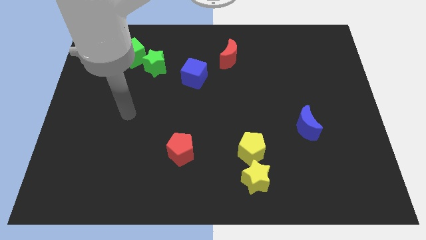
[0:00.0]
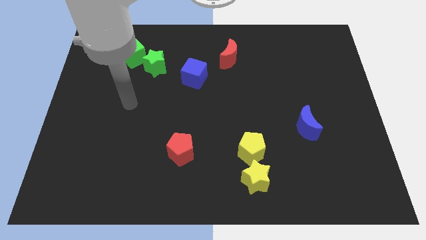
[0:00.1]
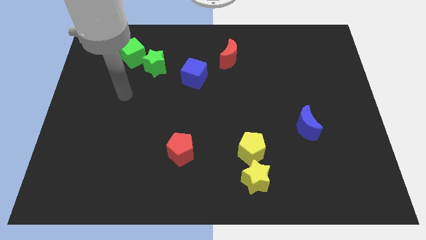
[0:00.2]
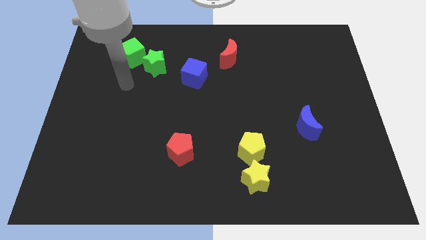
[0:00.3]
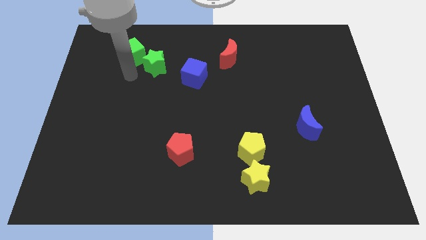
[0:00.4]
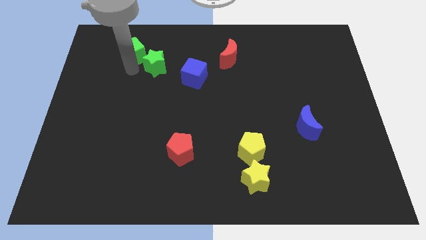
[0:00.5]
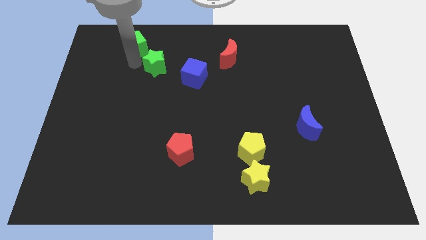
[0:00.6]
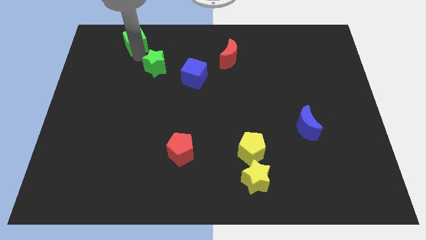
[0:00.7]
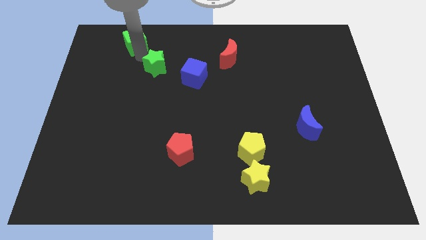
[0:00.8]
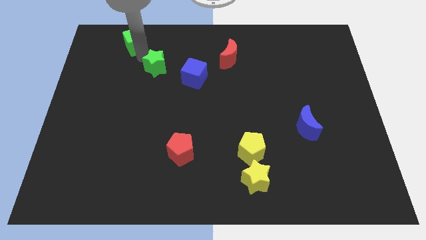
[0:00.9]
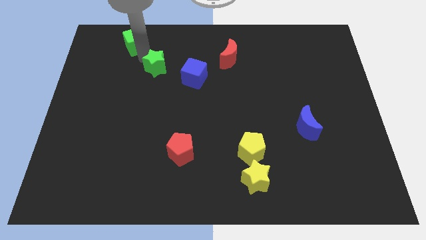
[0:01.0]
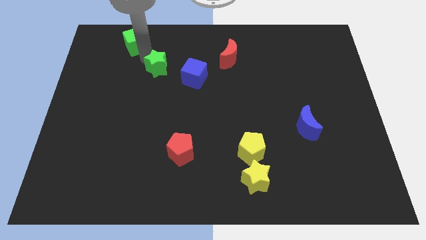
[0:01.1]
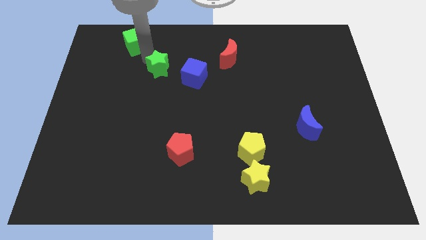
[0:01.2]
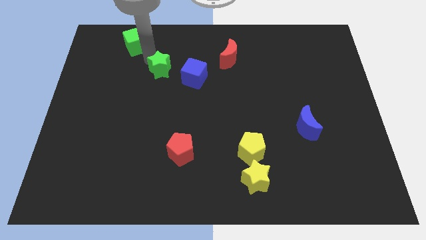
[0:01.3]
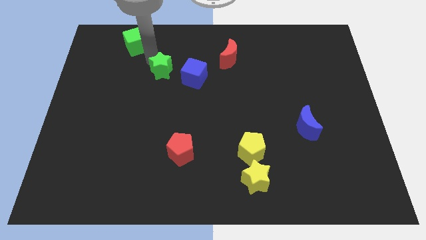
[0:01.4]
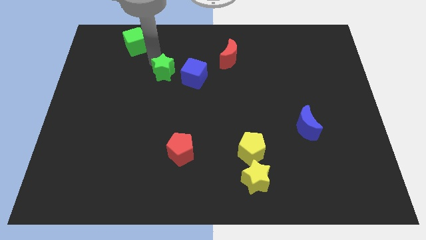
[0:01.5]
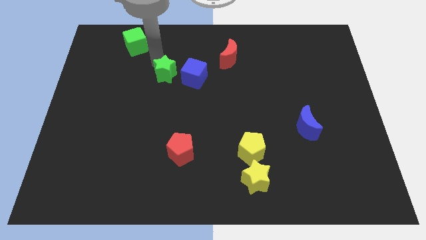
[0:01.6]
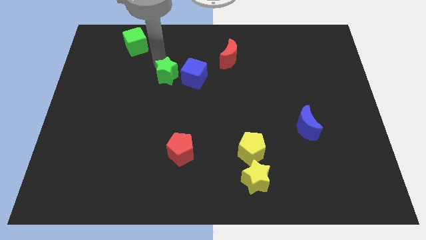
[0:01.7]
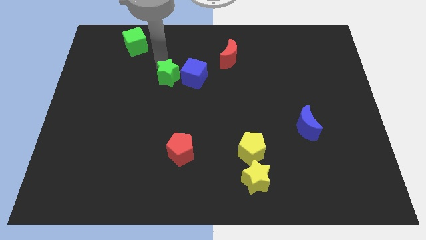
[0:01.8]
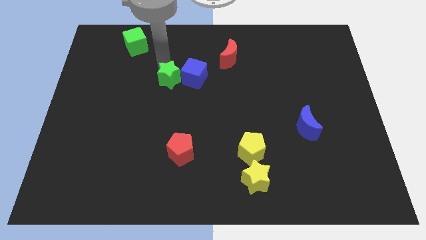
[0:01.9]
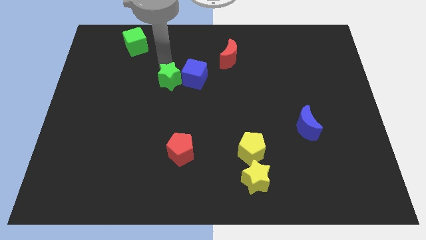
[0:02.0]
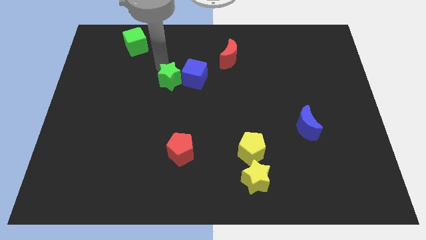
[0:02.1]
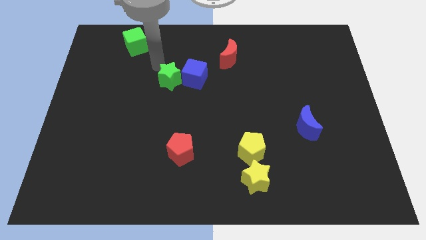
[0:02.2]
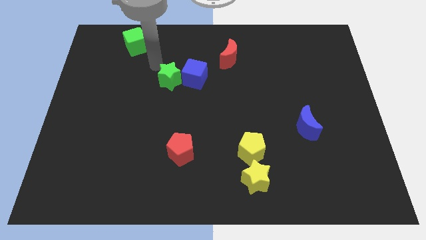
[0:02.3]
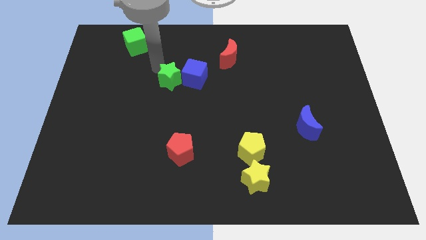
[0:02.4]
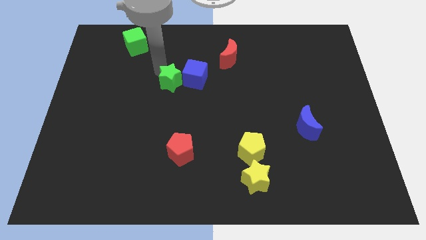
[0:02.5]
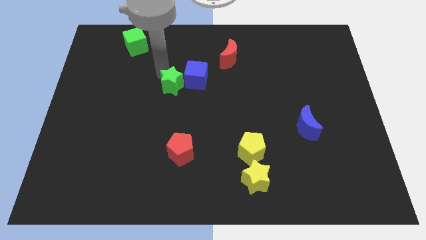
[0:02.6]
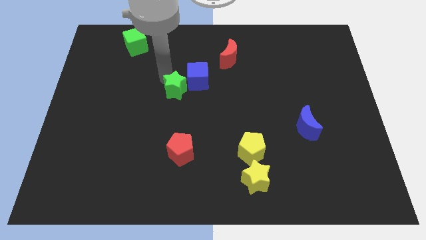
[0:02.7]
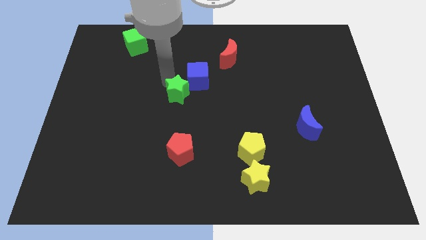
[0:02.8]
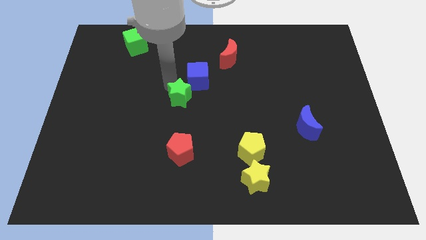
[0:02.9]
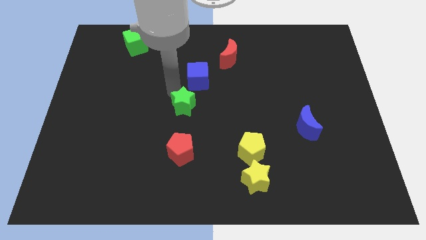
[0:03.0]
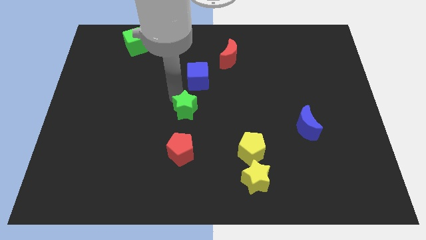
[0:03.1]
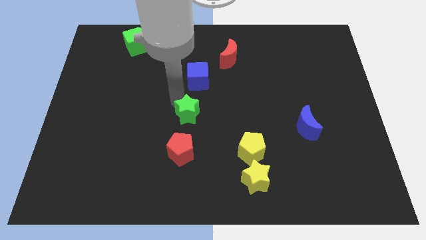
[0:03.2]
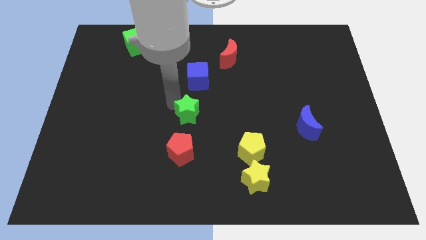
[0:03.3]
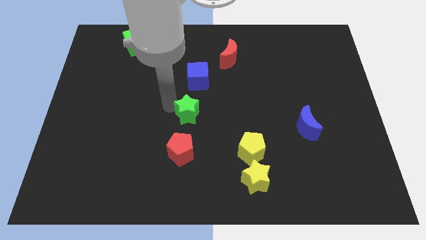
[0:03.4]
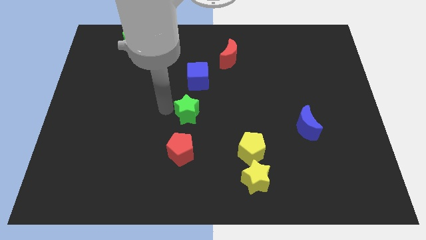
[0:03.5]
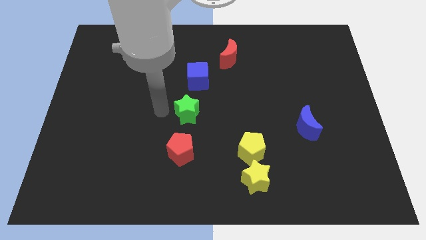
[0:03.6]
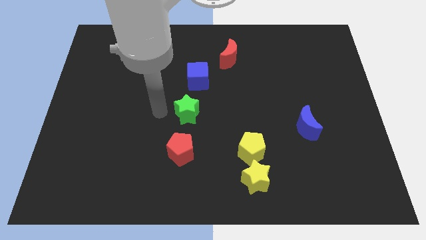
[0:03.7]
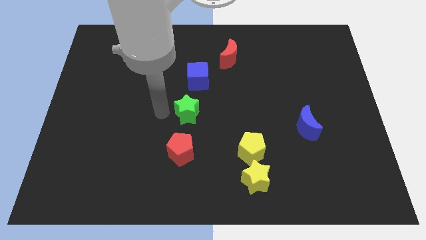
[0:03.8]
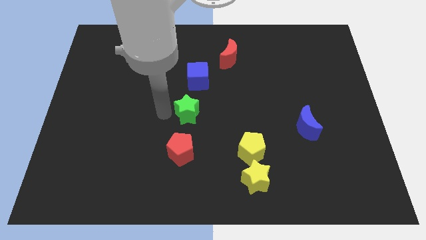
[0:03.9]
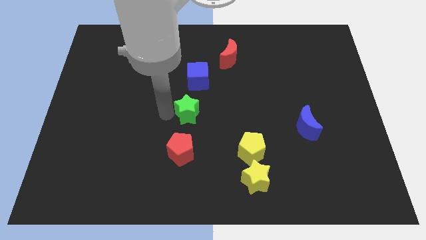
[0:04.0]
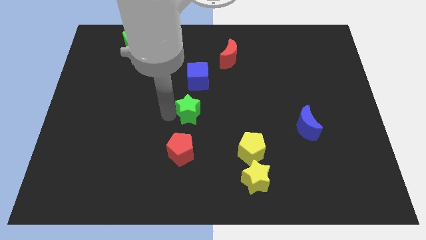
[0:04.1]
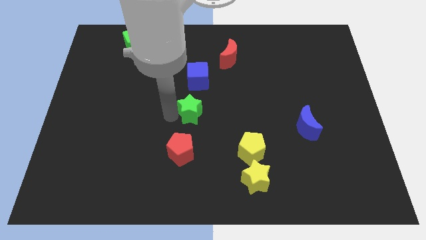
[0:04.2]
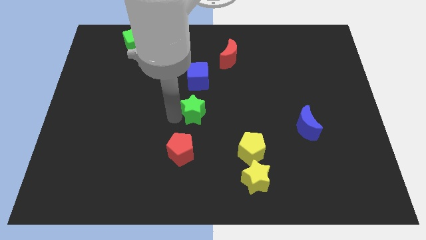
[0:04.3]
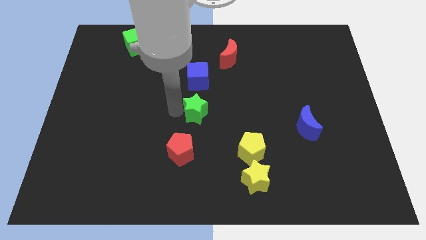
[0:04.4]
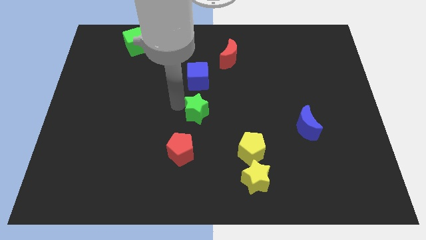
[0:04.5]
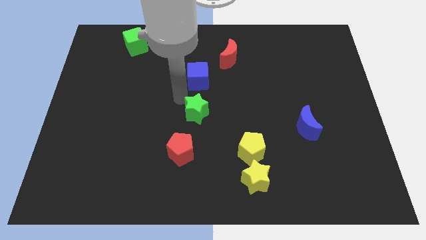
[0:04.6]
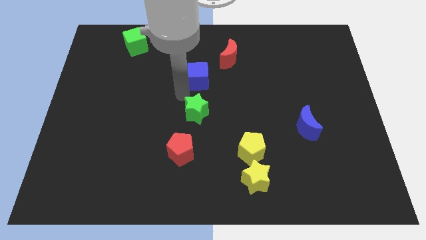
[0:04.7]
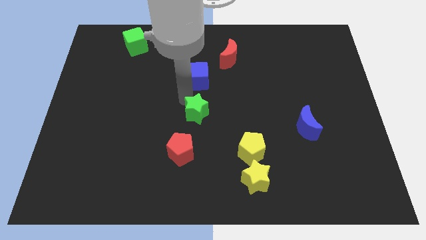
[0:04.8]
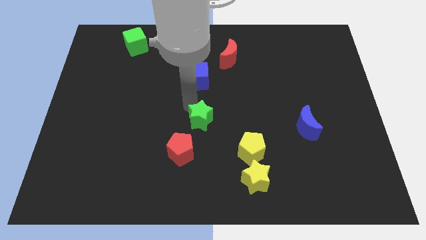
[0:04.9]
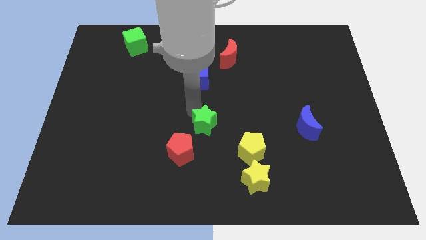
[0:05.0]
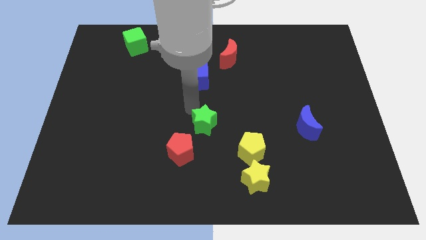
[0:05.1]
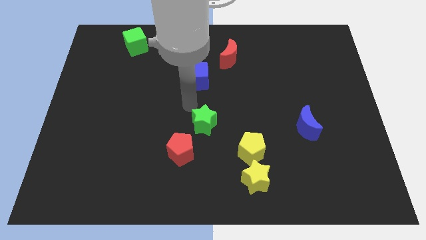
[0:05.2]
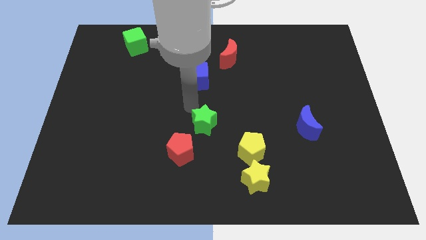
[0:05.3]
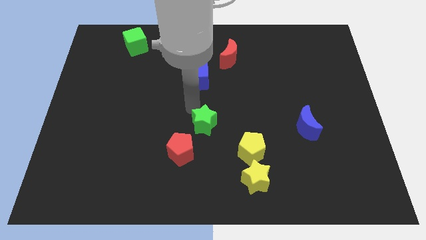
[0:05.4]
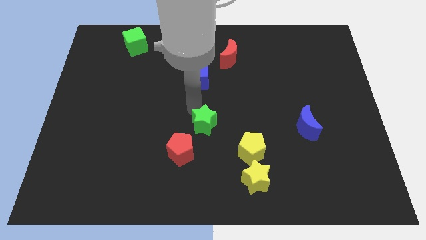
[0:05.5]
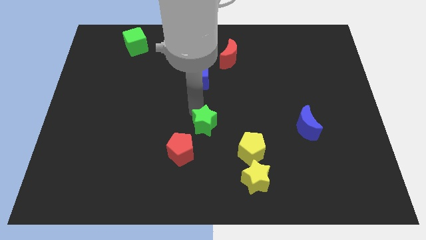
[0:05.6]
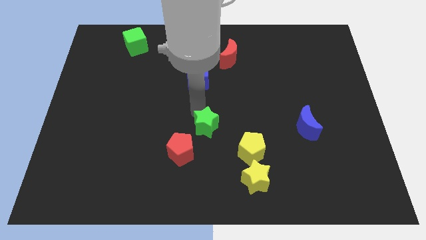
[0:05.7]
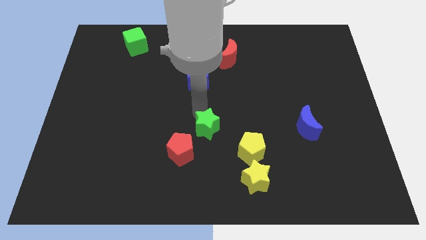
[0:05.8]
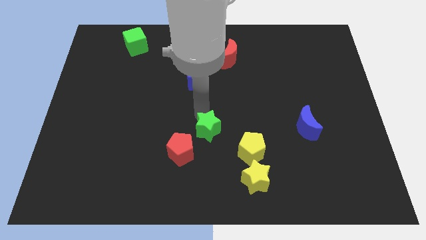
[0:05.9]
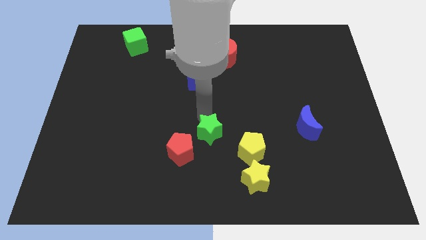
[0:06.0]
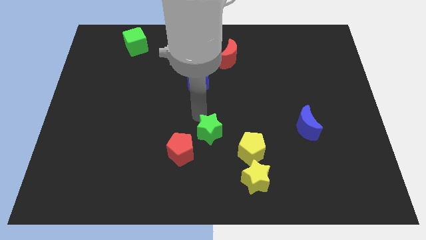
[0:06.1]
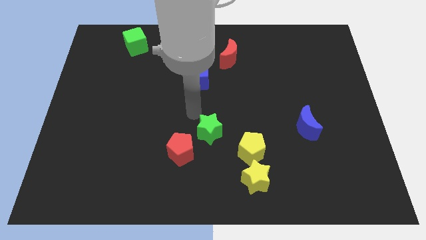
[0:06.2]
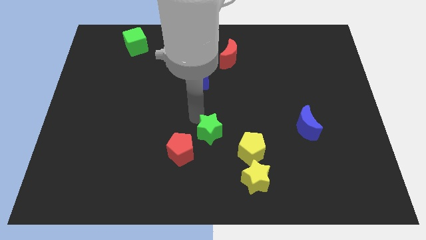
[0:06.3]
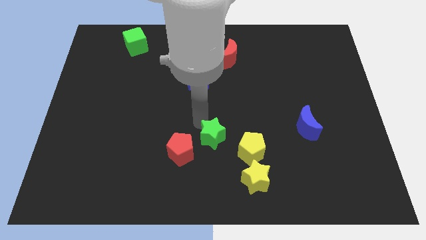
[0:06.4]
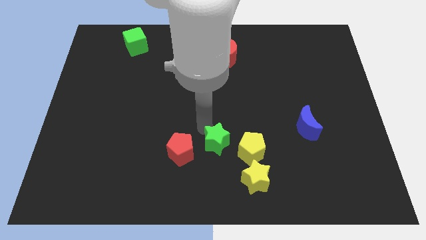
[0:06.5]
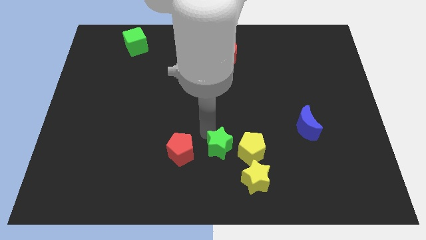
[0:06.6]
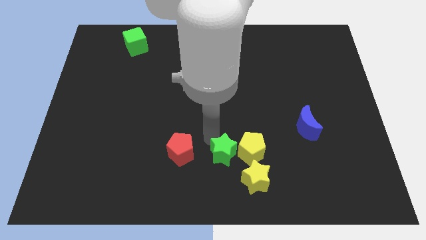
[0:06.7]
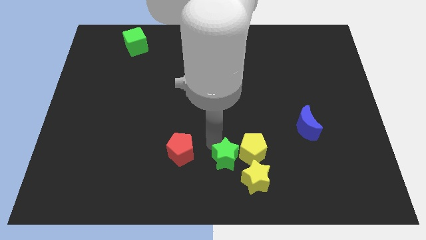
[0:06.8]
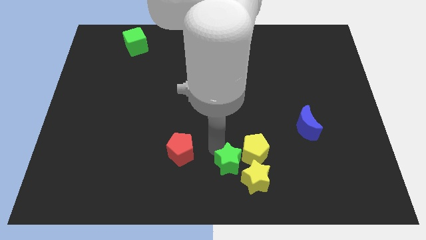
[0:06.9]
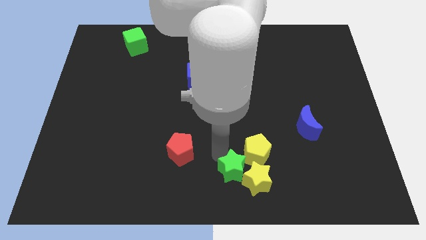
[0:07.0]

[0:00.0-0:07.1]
move the green star close to the yellow star
